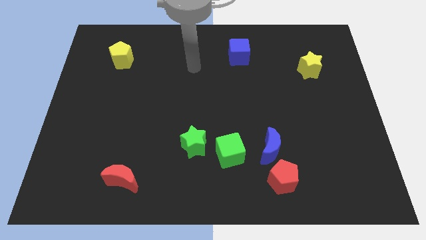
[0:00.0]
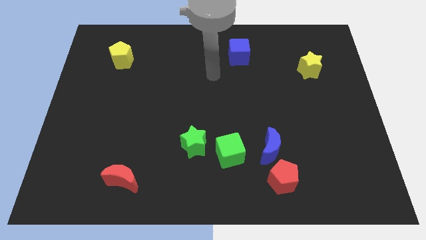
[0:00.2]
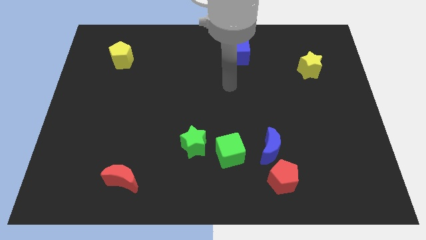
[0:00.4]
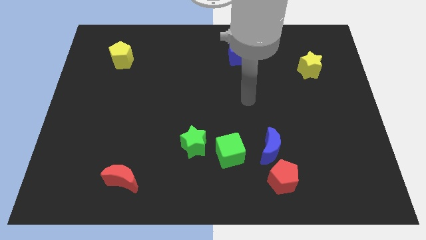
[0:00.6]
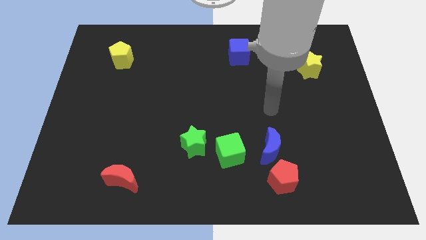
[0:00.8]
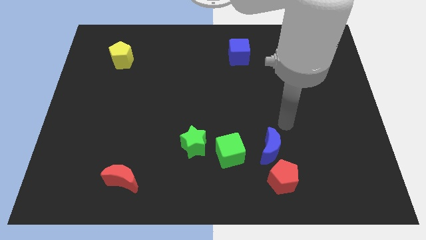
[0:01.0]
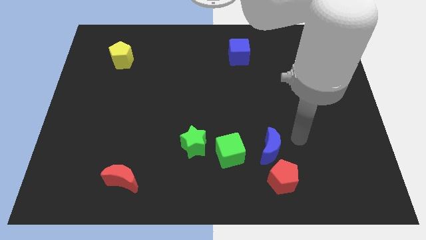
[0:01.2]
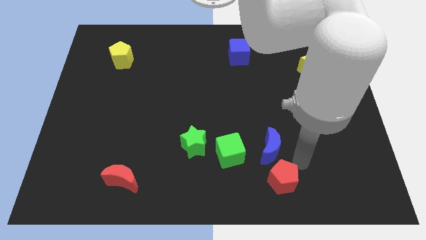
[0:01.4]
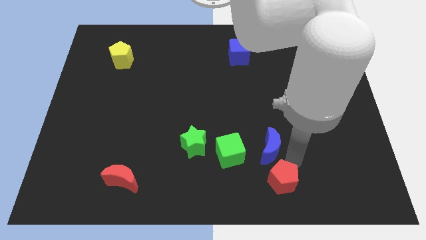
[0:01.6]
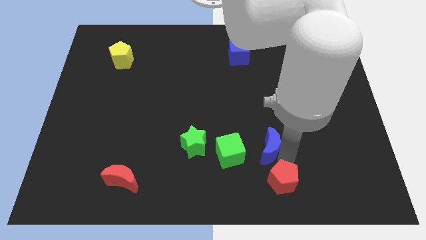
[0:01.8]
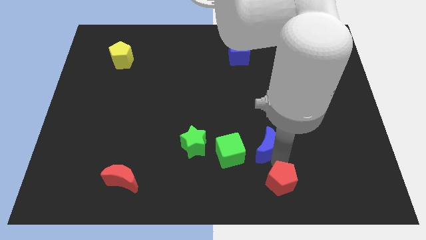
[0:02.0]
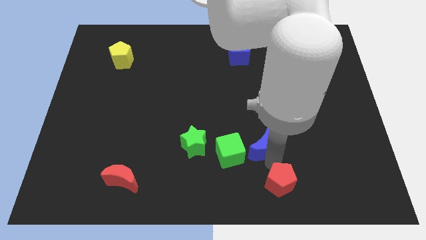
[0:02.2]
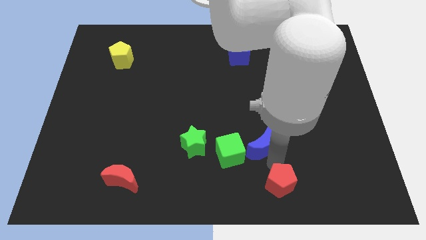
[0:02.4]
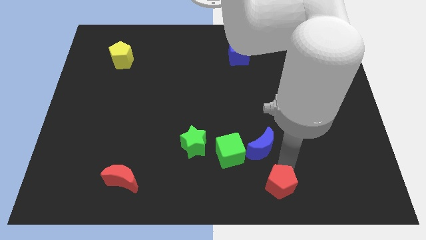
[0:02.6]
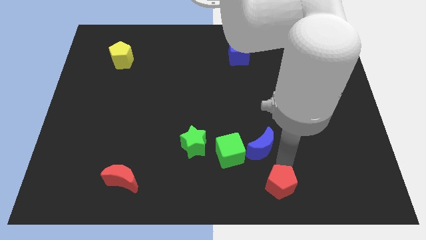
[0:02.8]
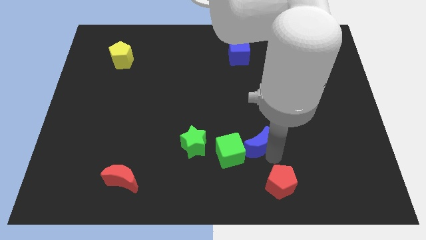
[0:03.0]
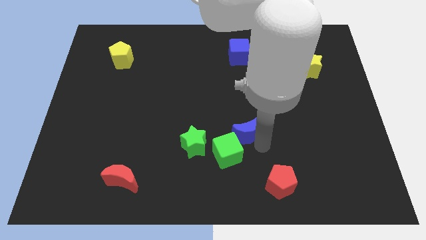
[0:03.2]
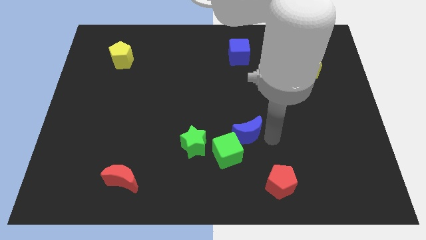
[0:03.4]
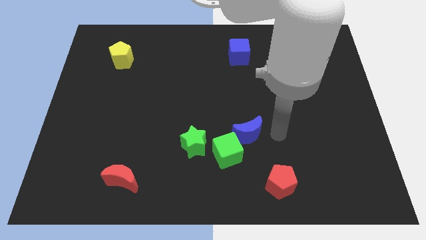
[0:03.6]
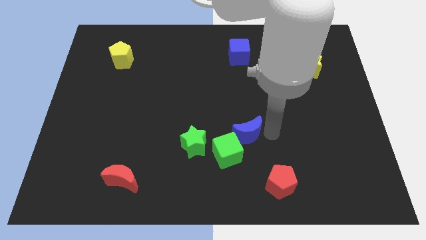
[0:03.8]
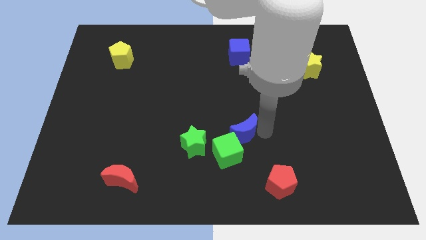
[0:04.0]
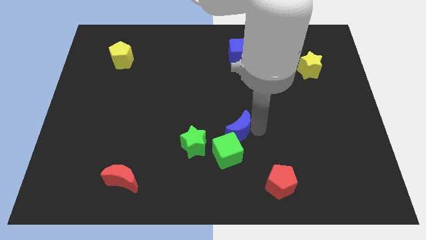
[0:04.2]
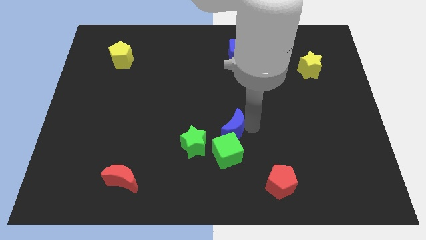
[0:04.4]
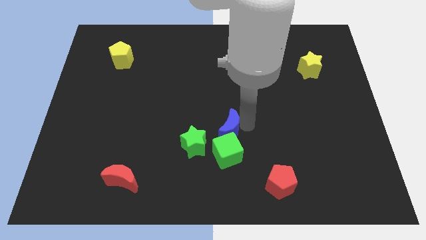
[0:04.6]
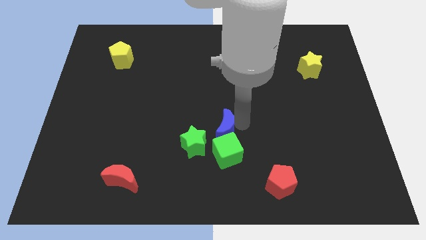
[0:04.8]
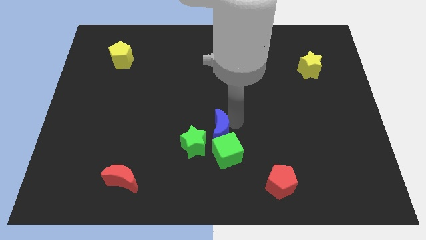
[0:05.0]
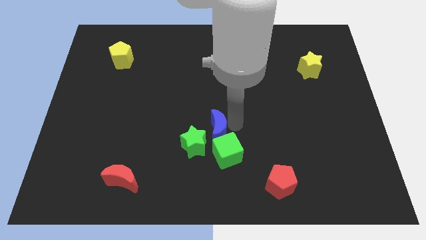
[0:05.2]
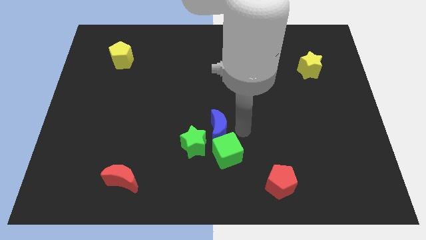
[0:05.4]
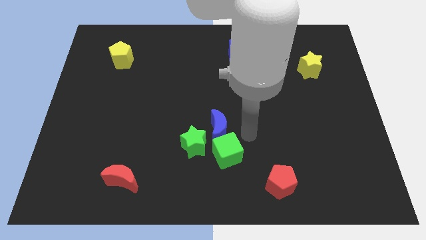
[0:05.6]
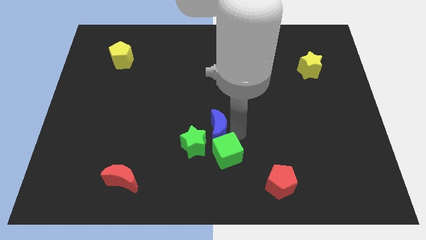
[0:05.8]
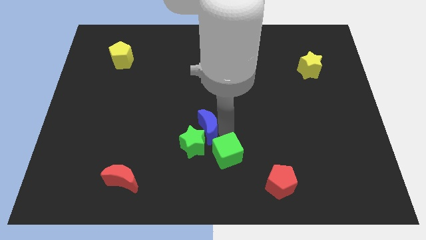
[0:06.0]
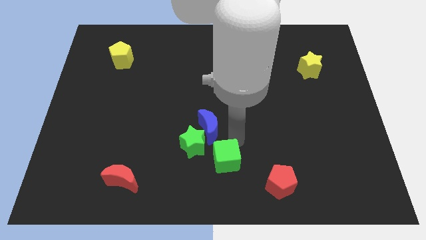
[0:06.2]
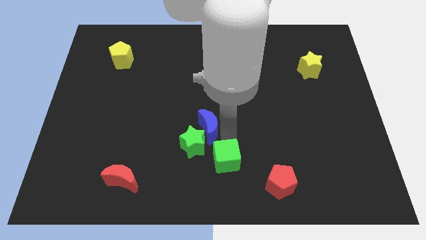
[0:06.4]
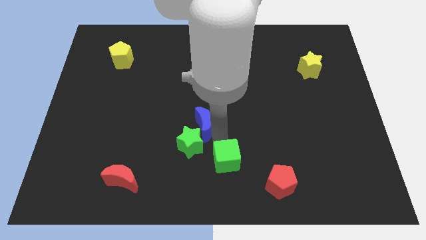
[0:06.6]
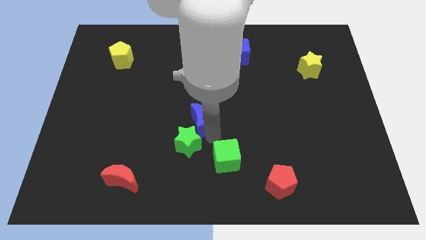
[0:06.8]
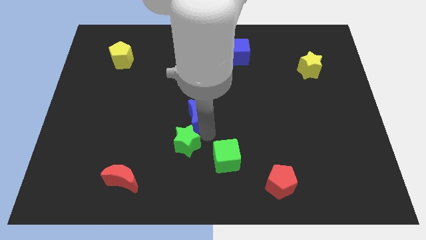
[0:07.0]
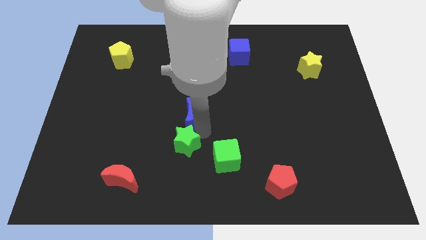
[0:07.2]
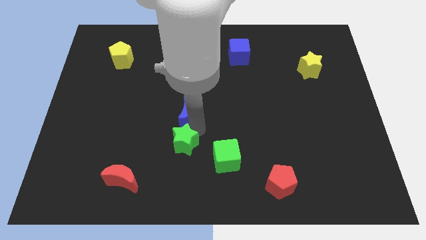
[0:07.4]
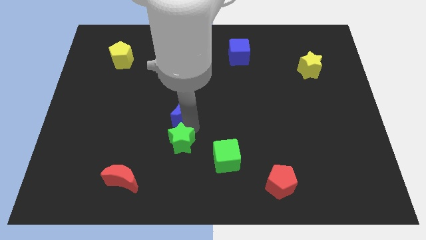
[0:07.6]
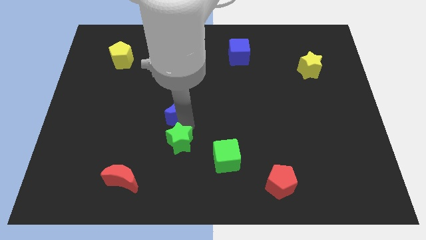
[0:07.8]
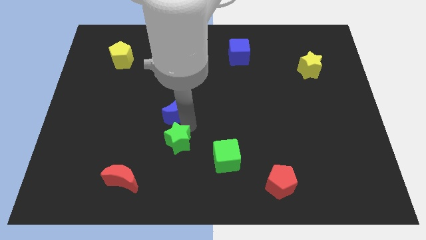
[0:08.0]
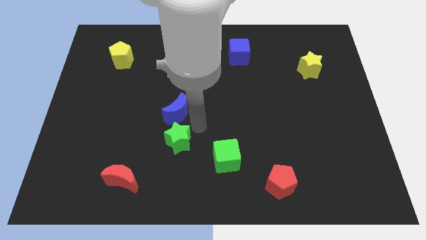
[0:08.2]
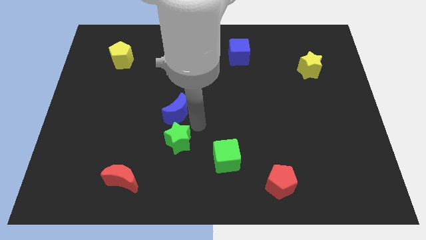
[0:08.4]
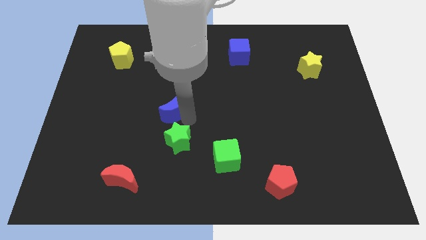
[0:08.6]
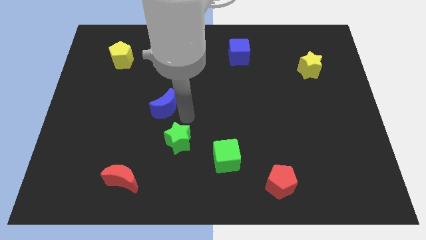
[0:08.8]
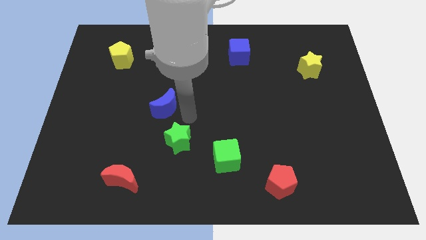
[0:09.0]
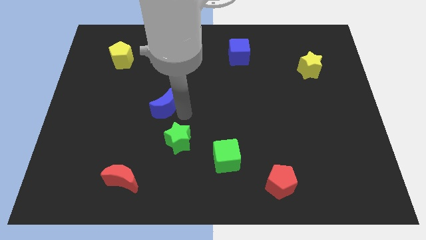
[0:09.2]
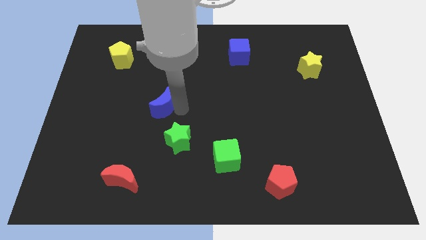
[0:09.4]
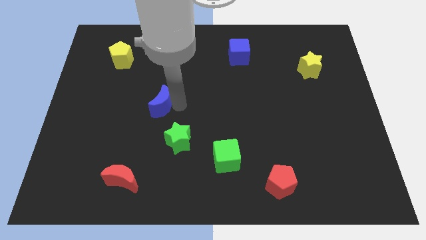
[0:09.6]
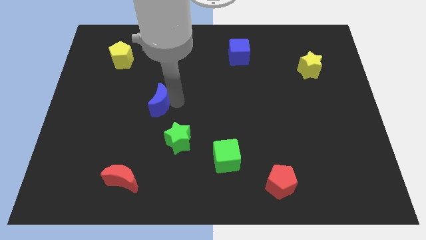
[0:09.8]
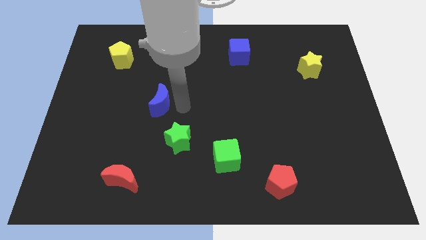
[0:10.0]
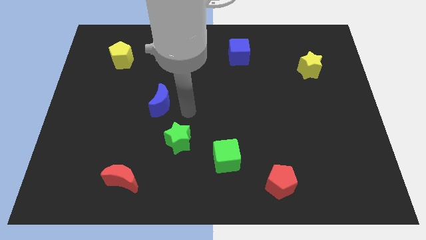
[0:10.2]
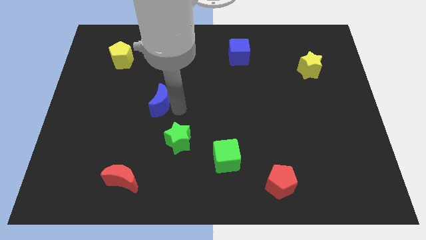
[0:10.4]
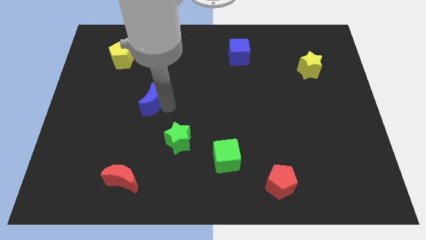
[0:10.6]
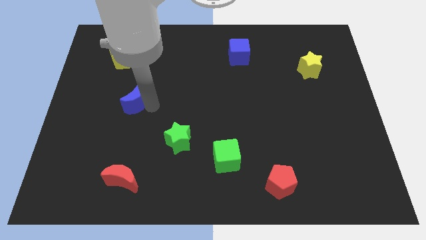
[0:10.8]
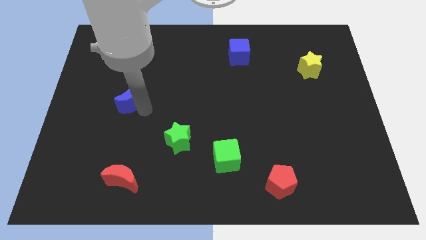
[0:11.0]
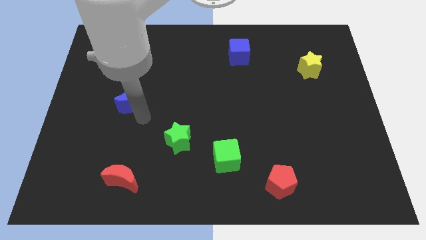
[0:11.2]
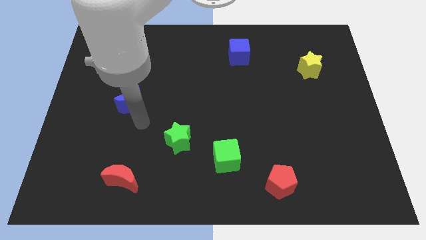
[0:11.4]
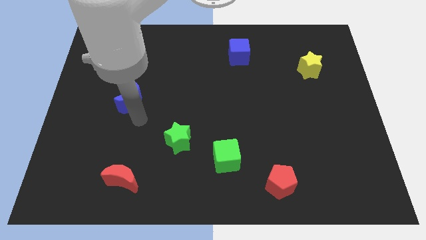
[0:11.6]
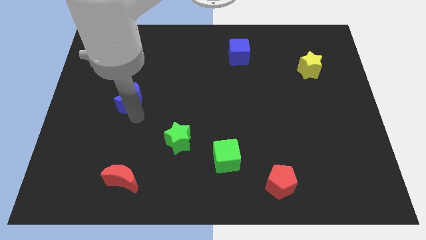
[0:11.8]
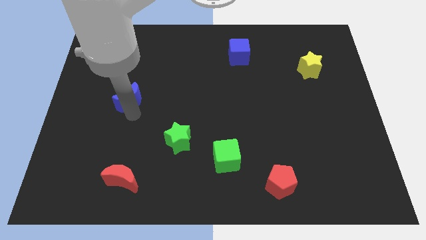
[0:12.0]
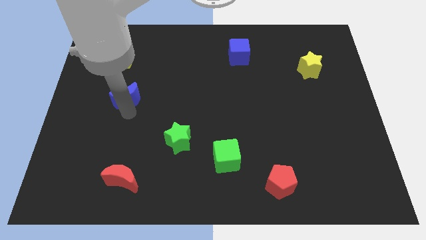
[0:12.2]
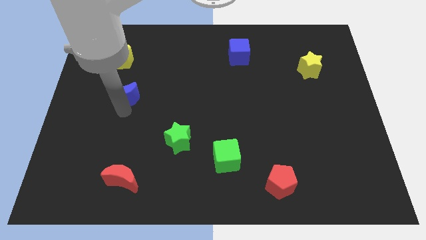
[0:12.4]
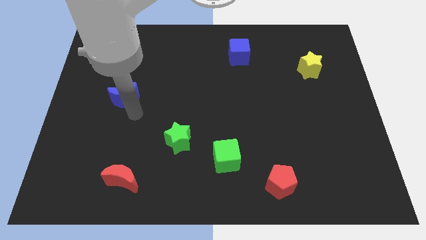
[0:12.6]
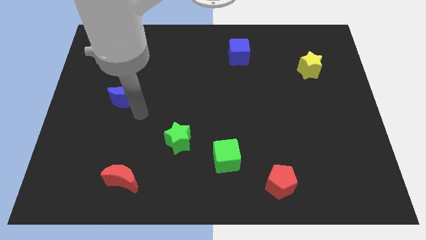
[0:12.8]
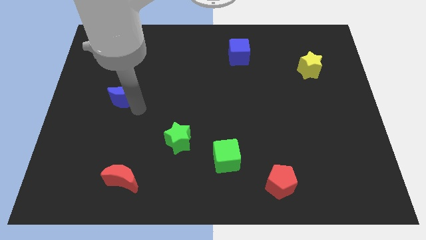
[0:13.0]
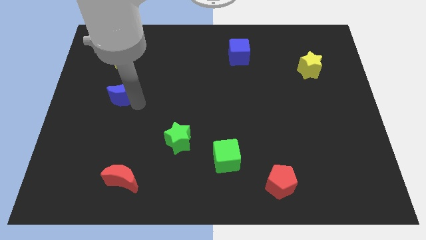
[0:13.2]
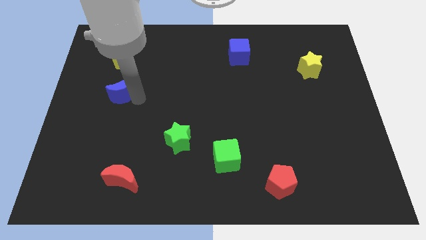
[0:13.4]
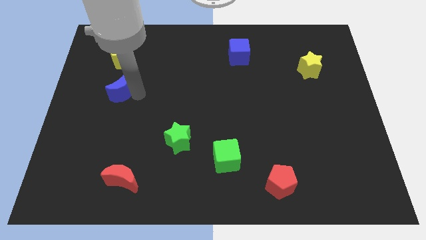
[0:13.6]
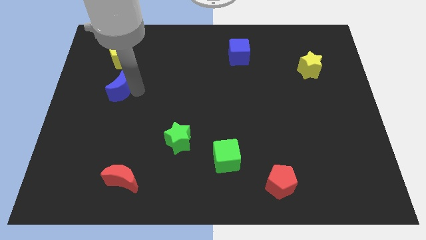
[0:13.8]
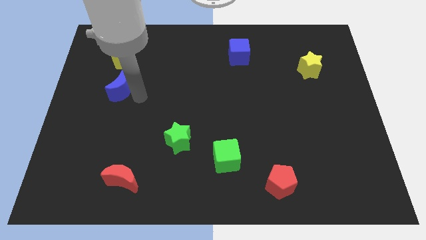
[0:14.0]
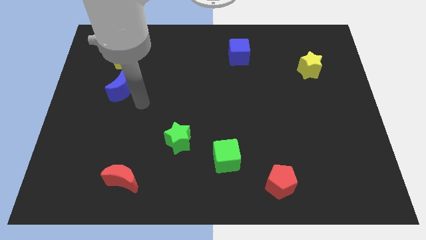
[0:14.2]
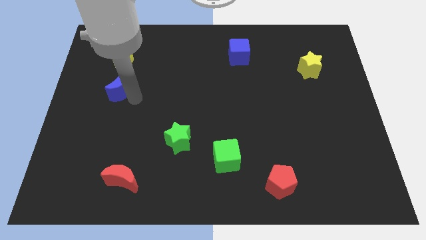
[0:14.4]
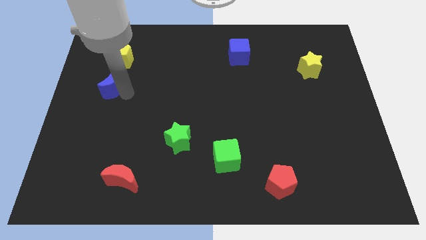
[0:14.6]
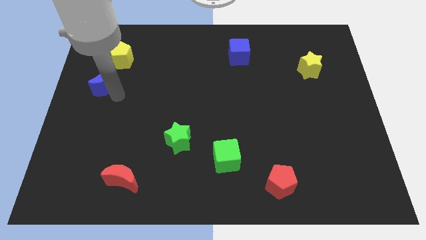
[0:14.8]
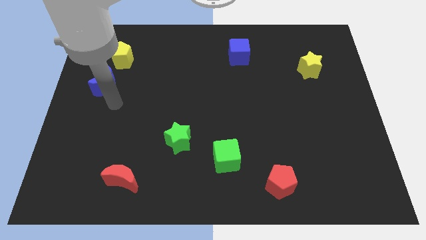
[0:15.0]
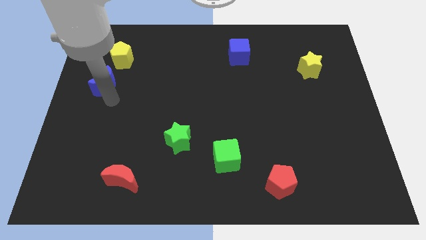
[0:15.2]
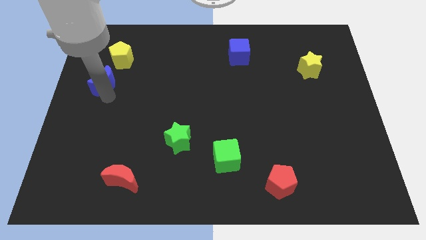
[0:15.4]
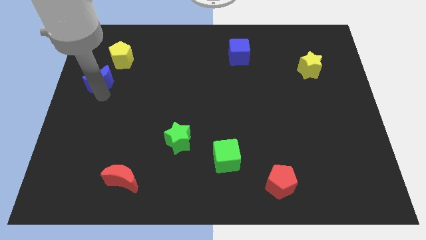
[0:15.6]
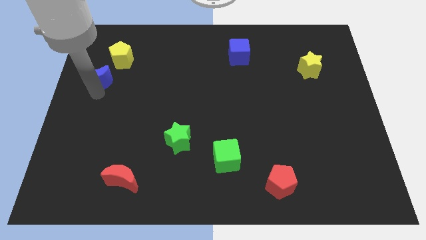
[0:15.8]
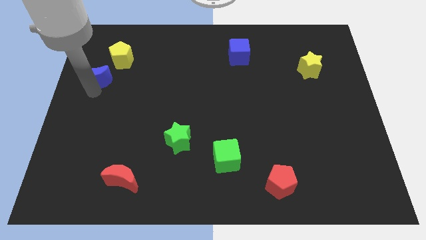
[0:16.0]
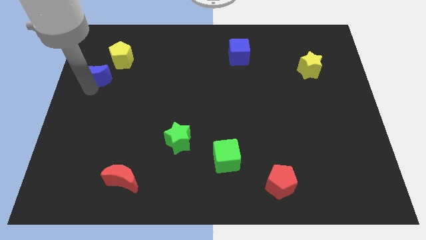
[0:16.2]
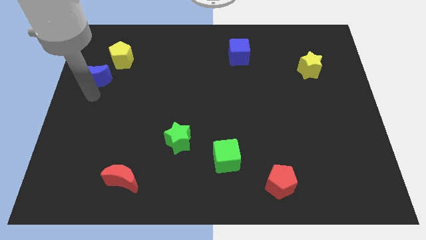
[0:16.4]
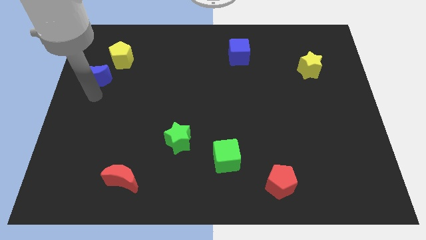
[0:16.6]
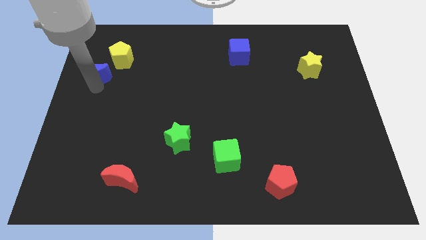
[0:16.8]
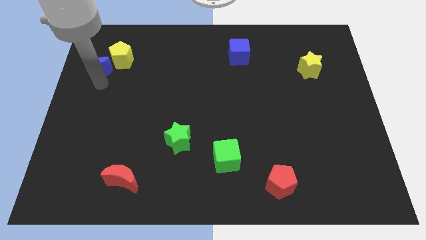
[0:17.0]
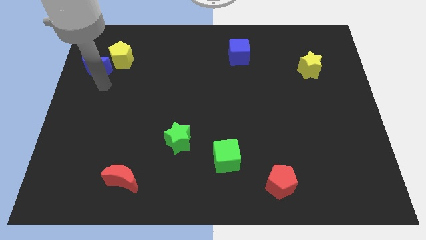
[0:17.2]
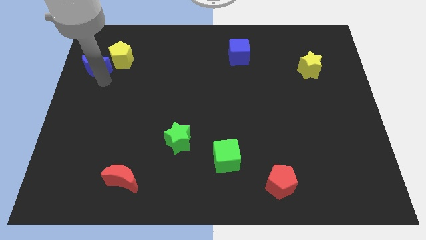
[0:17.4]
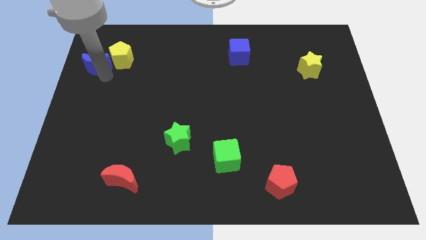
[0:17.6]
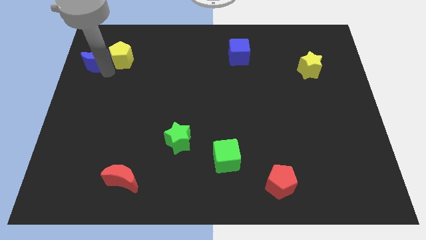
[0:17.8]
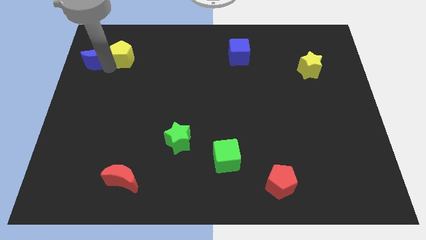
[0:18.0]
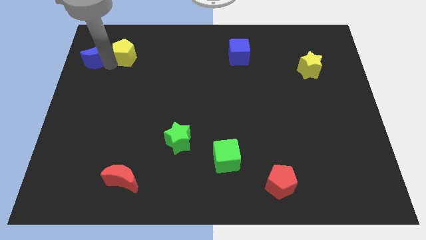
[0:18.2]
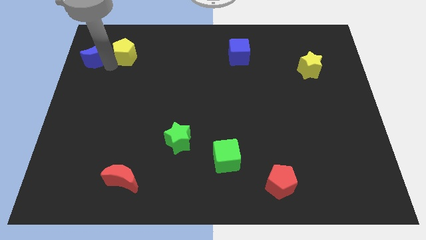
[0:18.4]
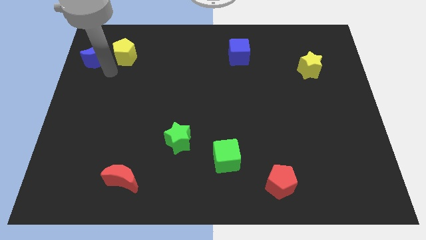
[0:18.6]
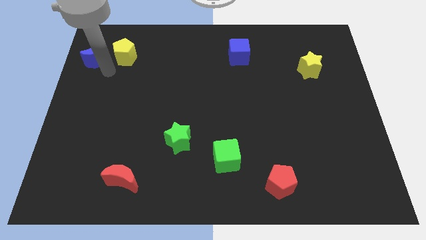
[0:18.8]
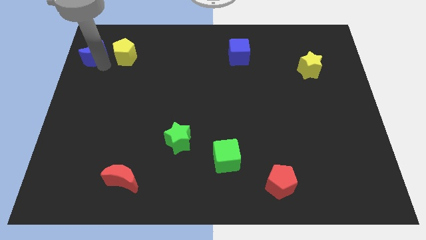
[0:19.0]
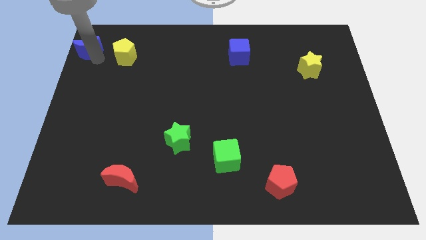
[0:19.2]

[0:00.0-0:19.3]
slide the blue moon to the top left of the board
